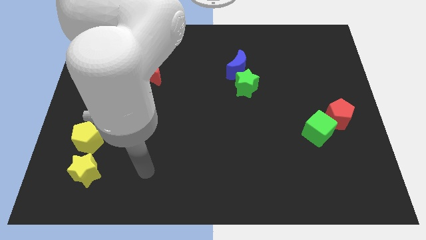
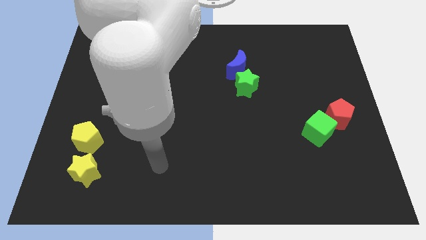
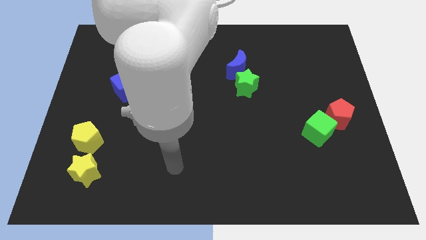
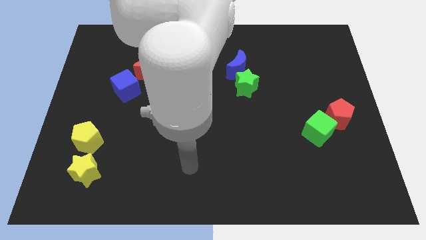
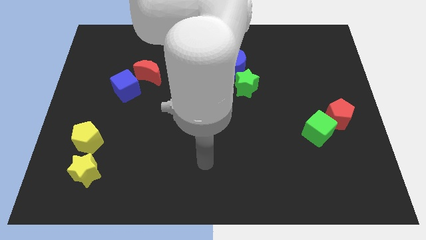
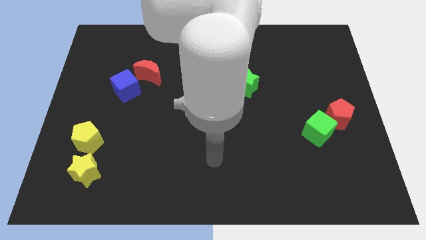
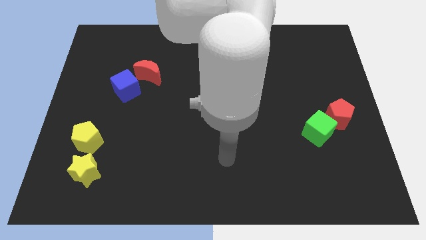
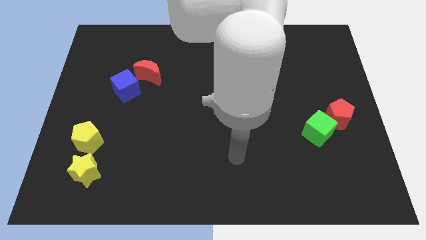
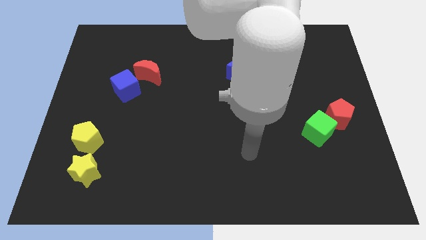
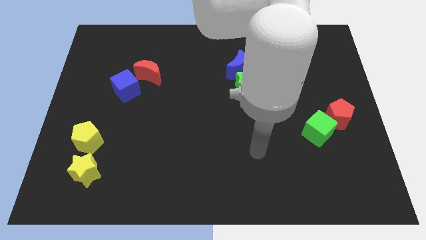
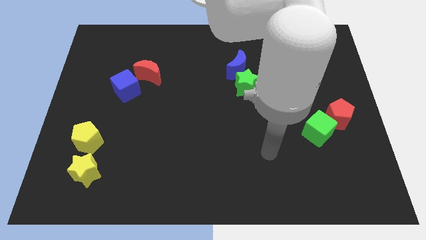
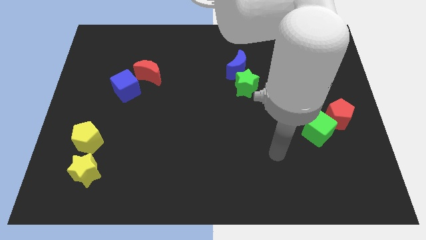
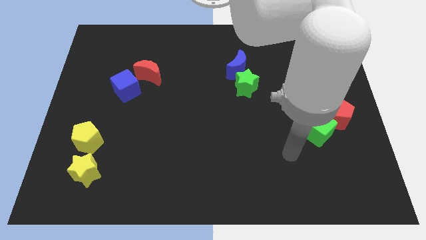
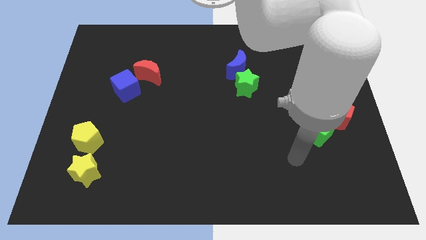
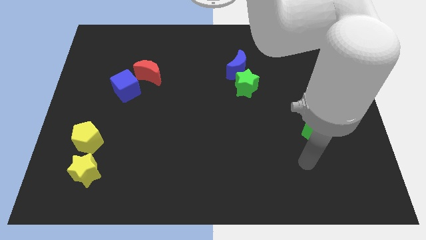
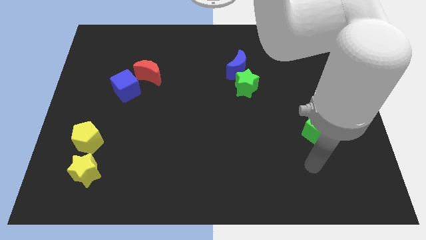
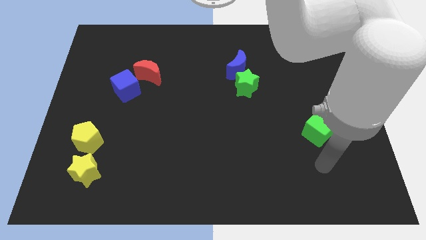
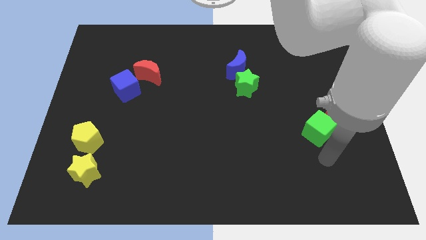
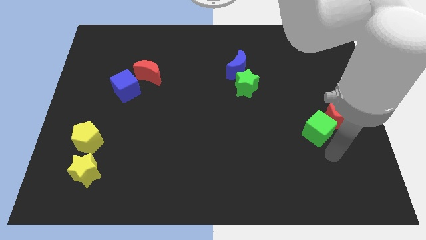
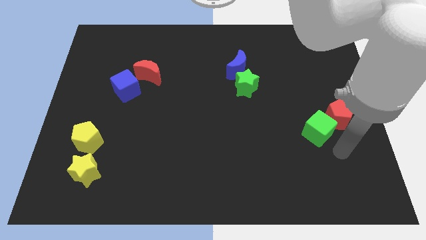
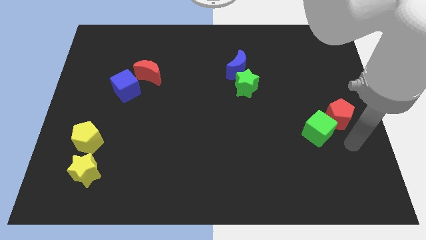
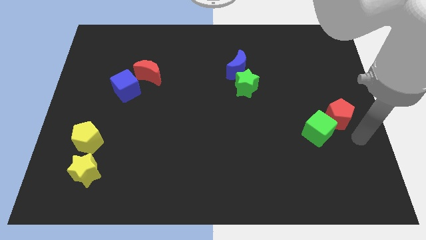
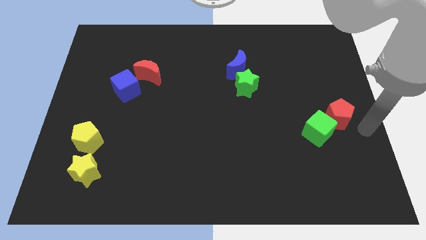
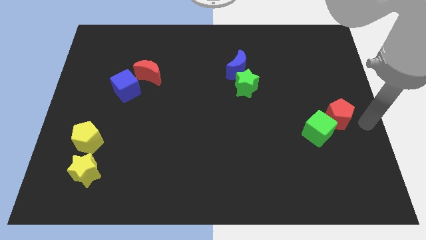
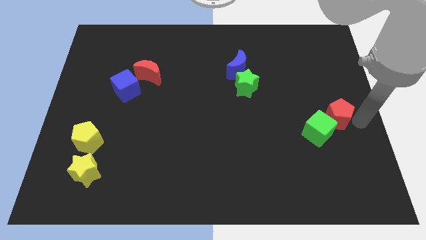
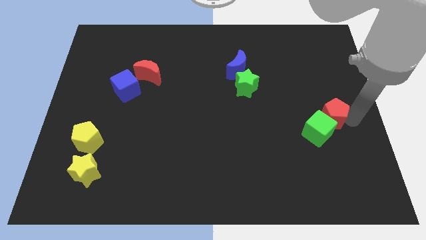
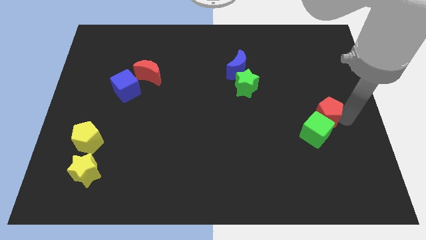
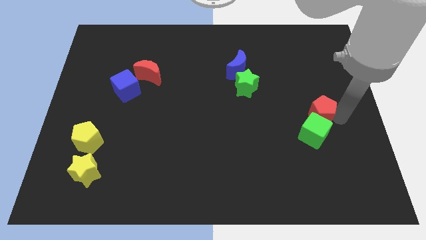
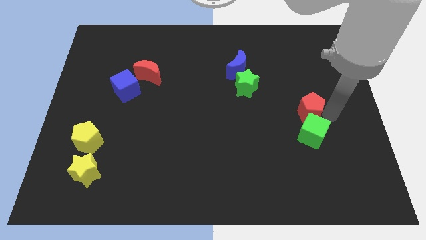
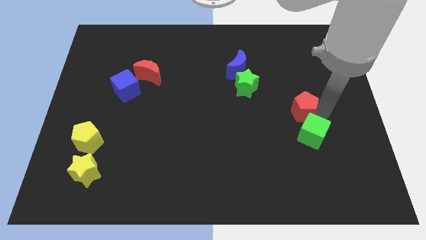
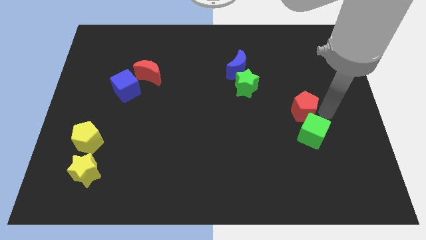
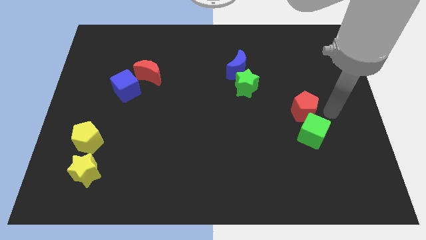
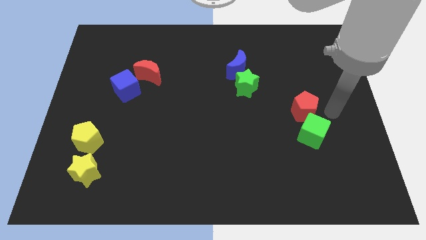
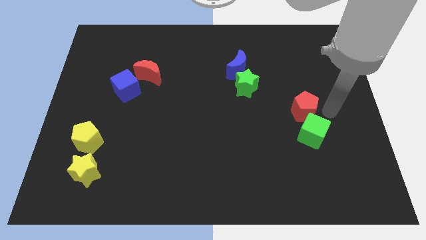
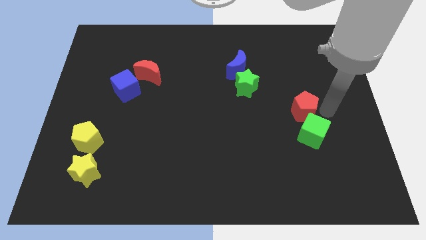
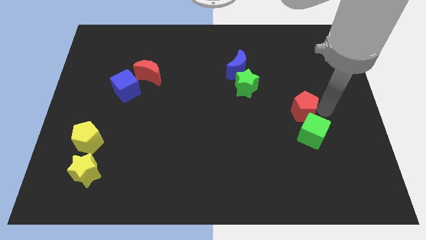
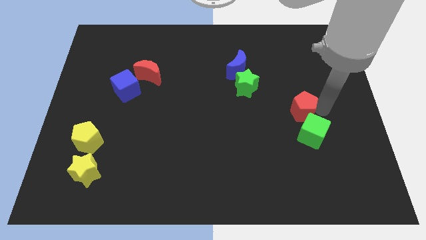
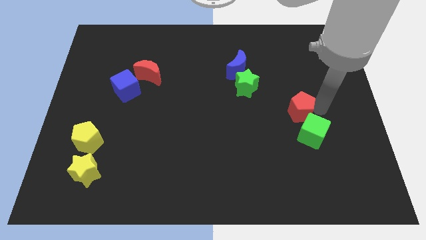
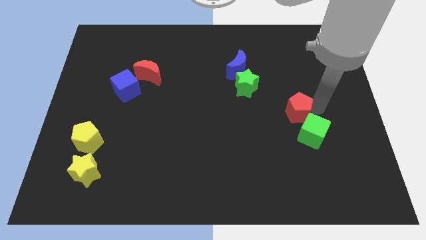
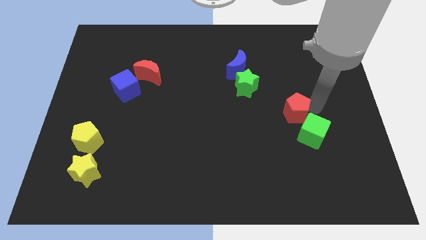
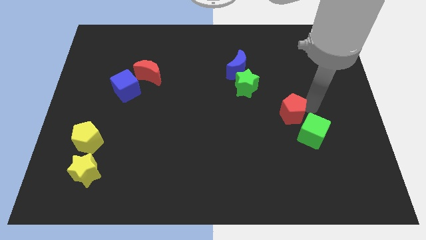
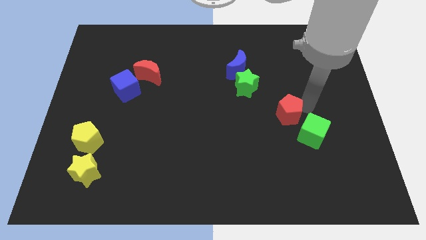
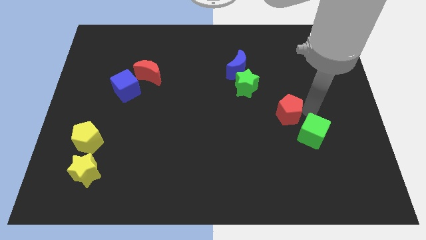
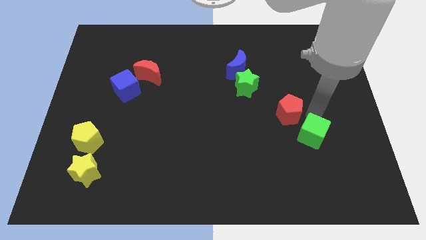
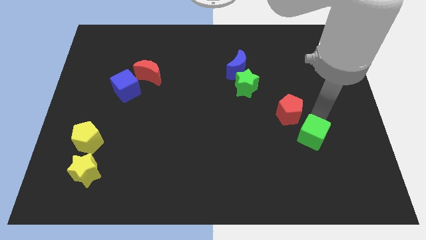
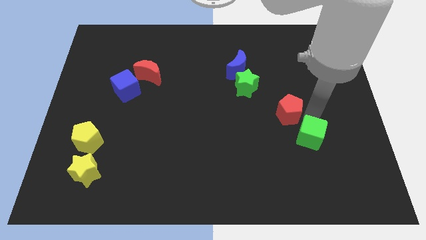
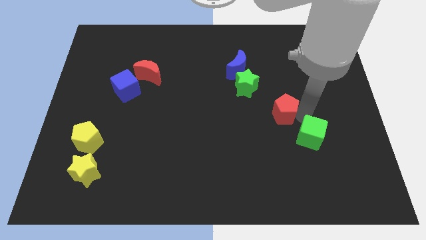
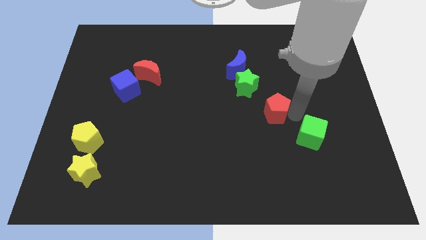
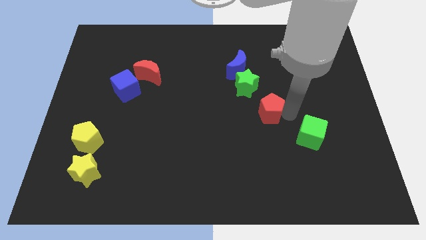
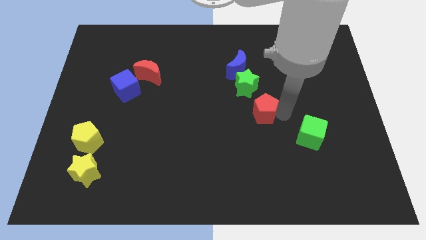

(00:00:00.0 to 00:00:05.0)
move the red pentagon to the middle

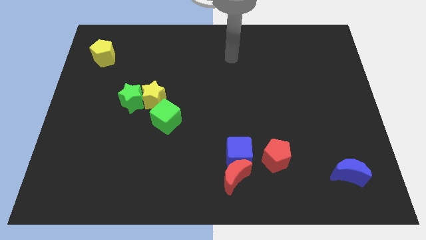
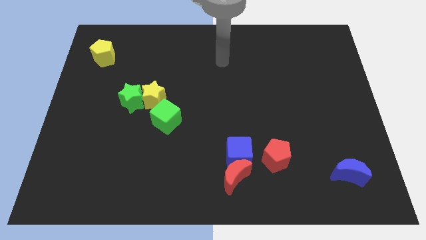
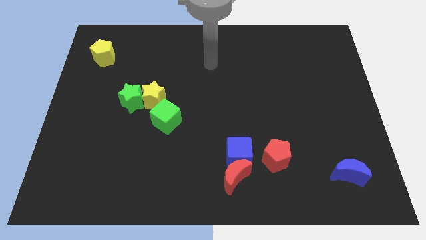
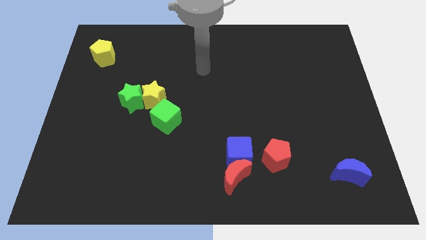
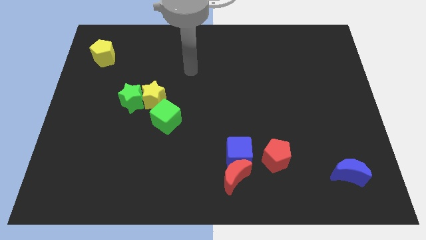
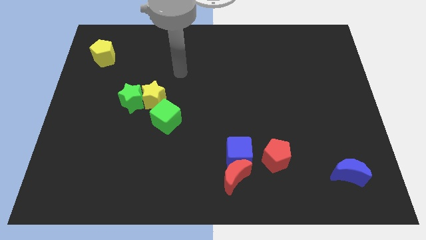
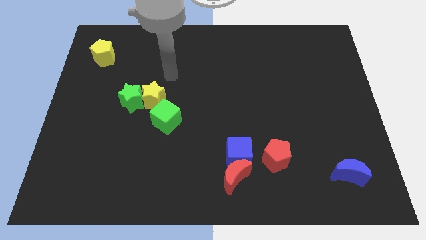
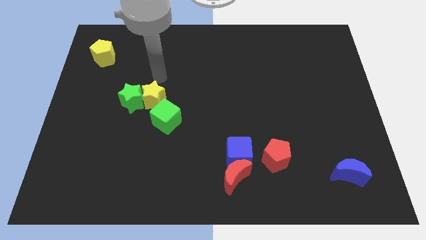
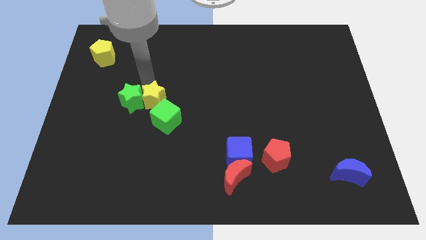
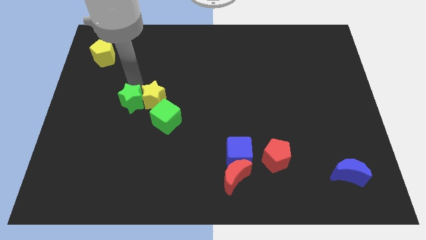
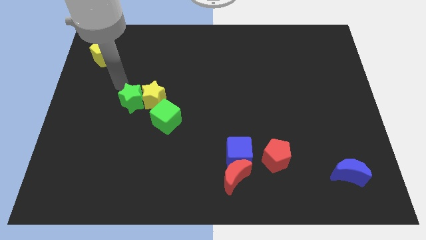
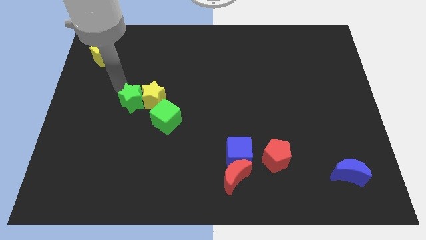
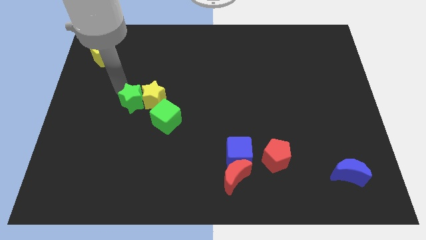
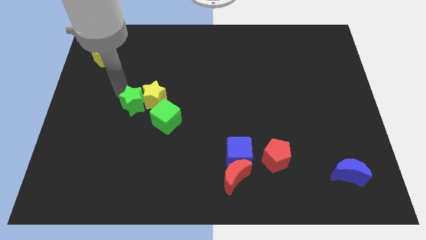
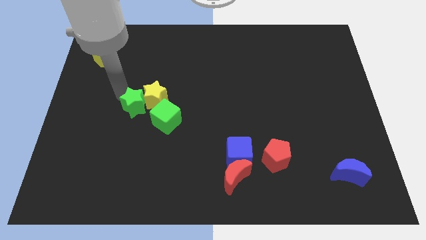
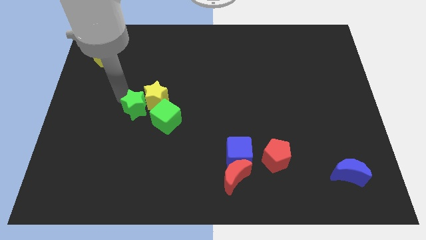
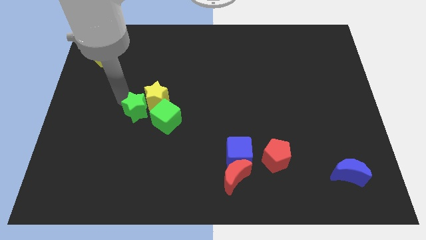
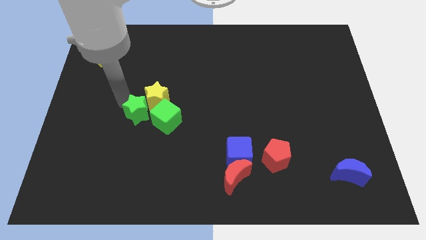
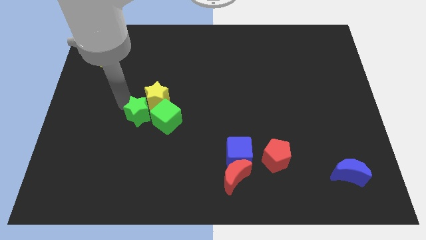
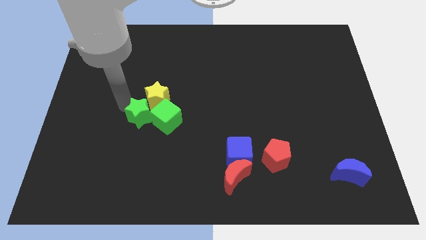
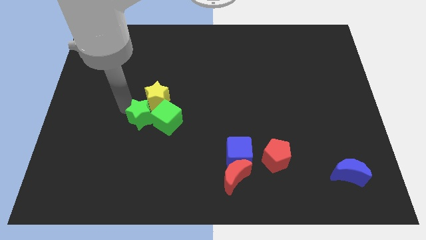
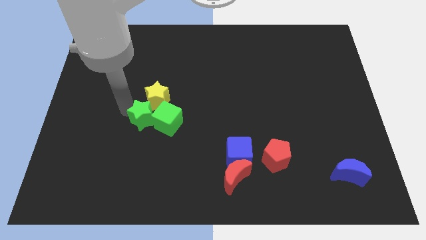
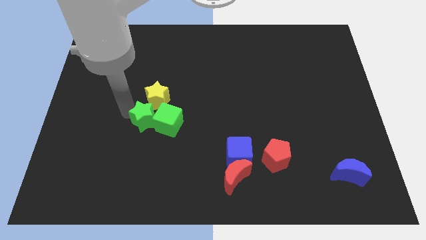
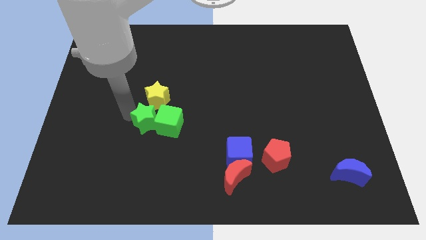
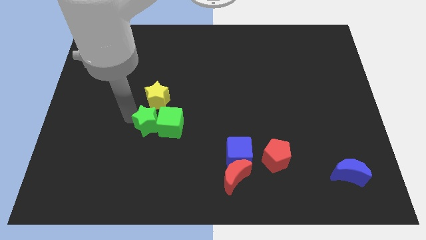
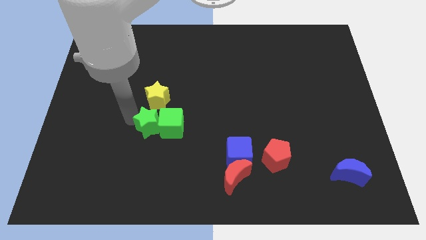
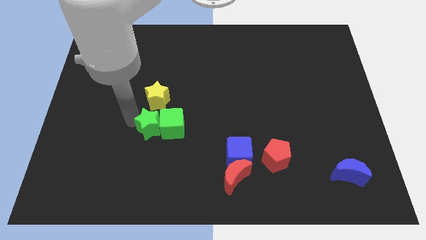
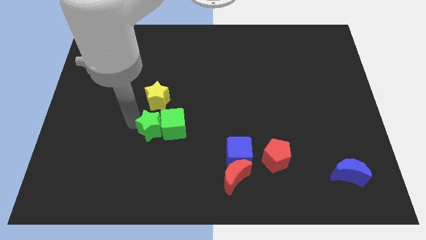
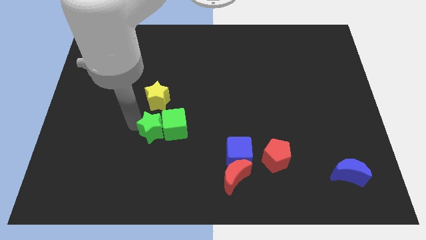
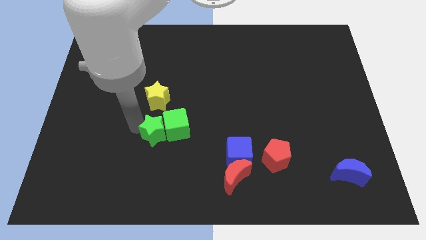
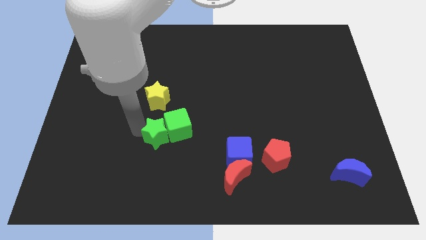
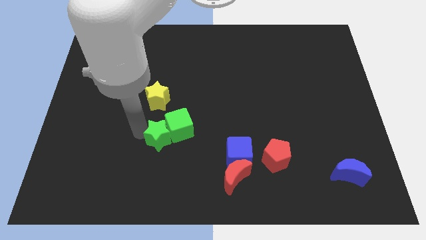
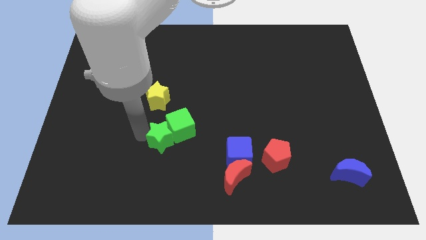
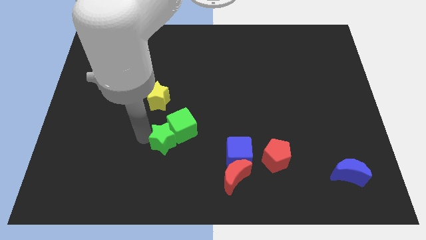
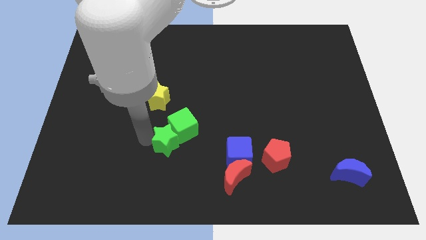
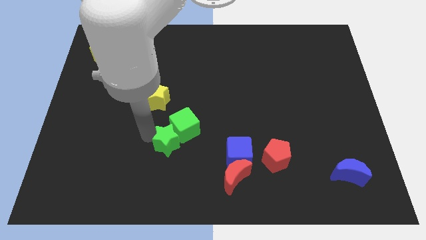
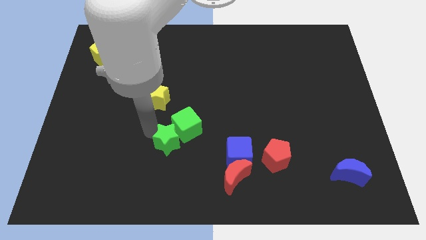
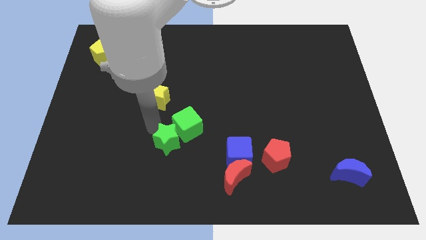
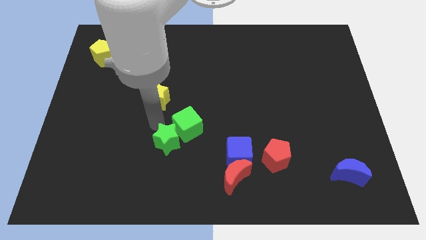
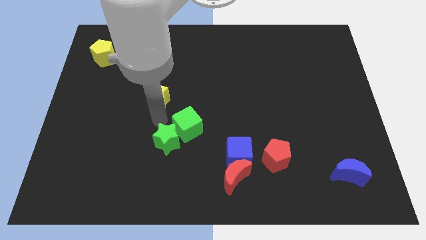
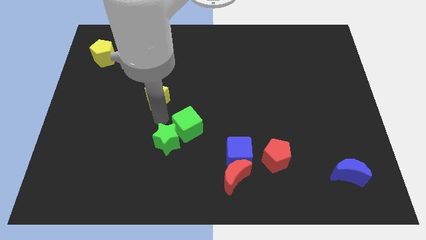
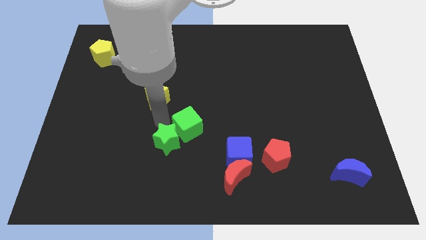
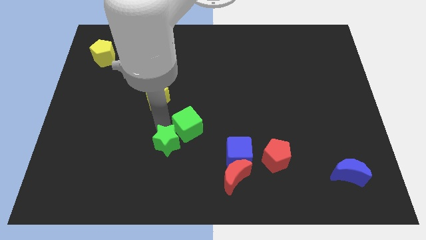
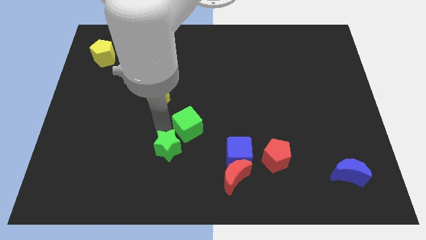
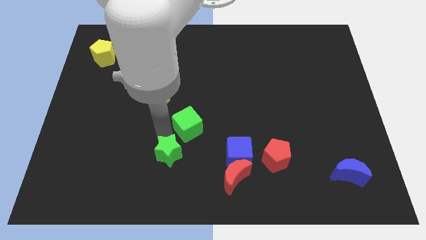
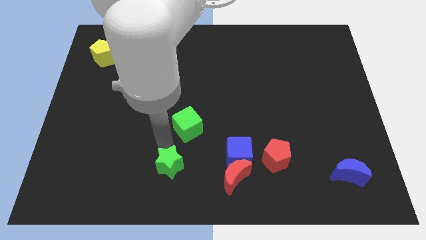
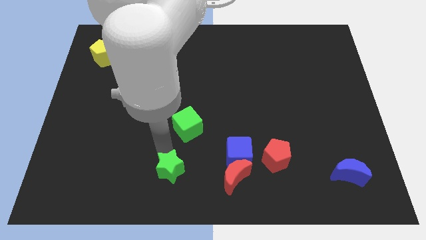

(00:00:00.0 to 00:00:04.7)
slide the green star to the bottom
